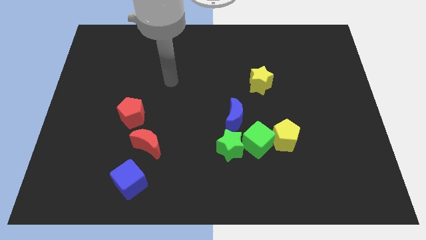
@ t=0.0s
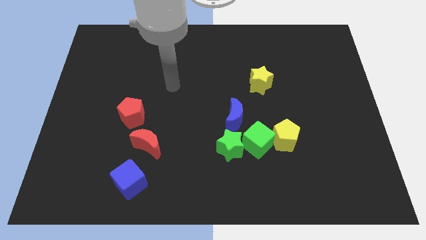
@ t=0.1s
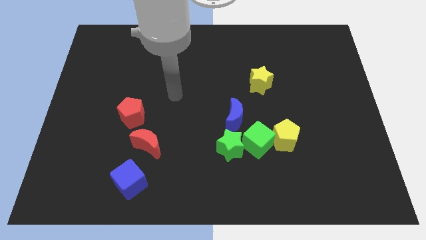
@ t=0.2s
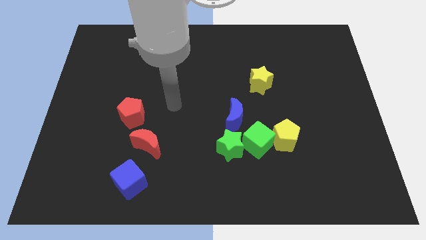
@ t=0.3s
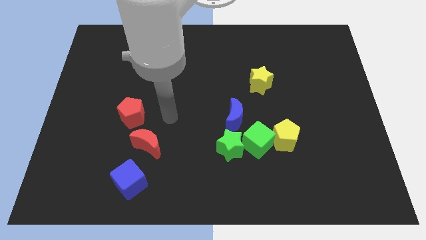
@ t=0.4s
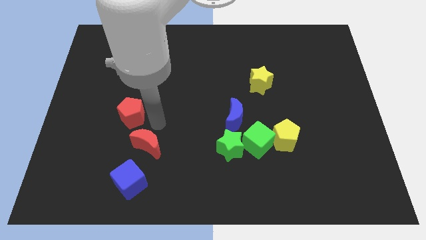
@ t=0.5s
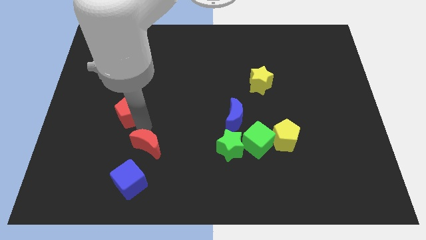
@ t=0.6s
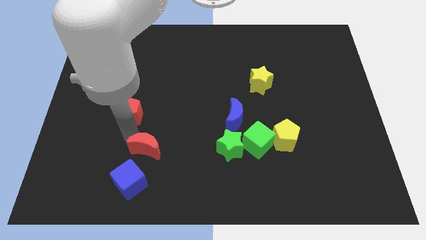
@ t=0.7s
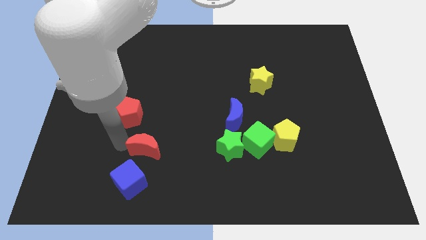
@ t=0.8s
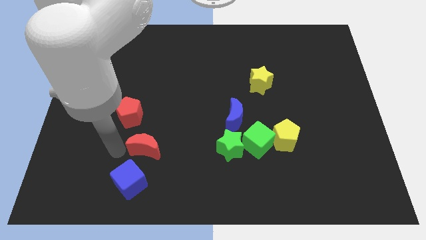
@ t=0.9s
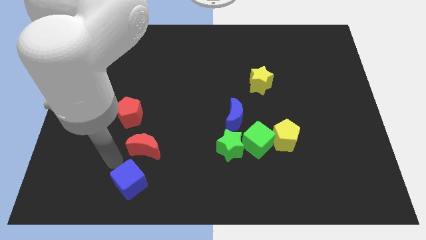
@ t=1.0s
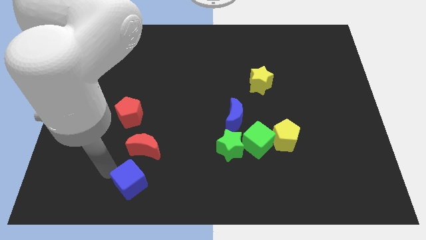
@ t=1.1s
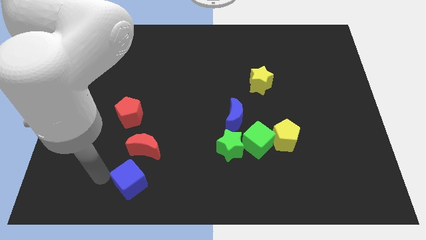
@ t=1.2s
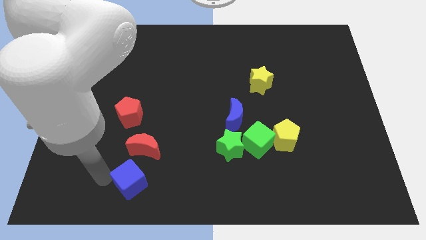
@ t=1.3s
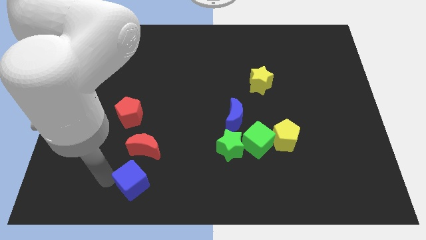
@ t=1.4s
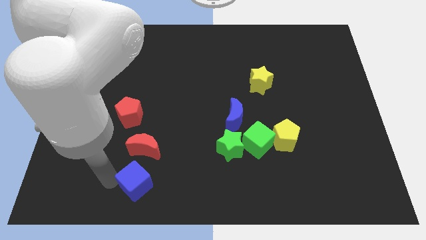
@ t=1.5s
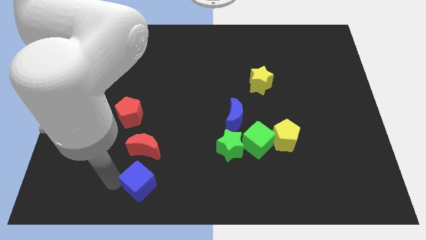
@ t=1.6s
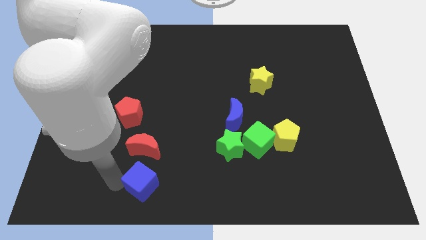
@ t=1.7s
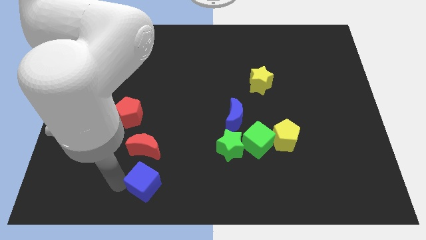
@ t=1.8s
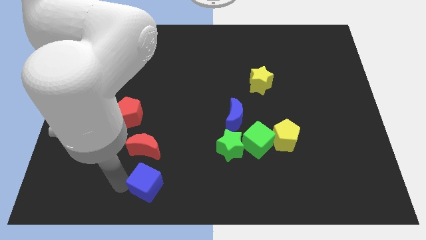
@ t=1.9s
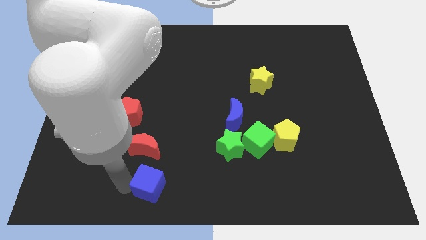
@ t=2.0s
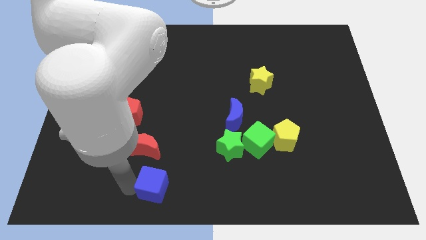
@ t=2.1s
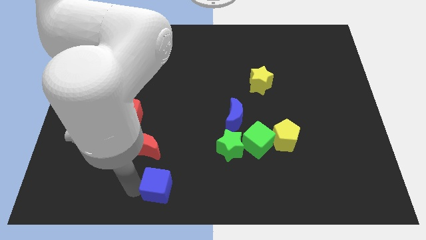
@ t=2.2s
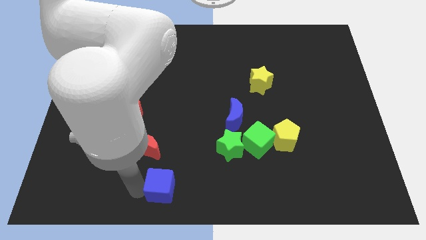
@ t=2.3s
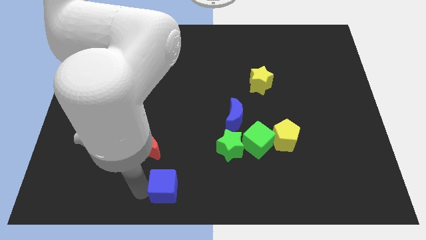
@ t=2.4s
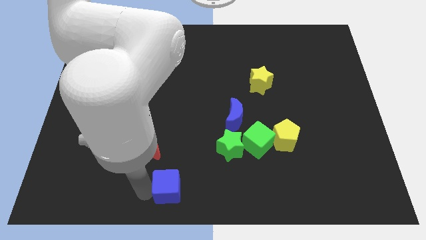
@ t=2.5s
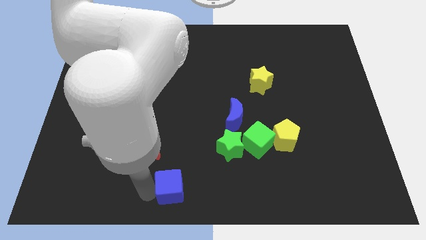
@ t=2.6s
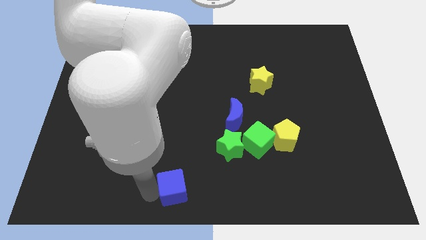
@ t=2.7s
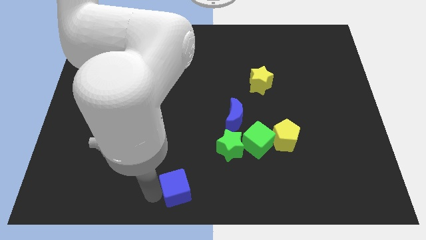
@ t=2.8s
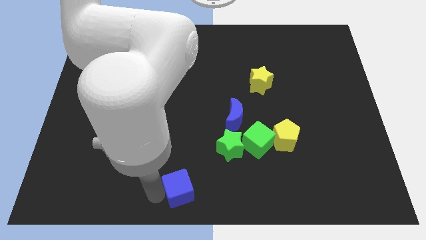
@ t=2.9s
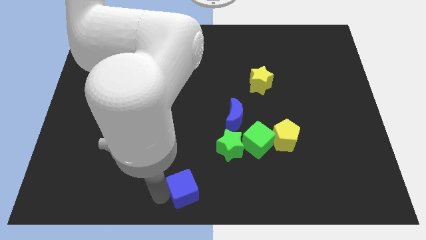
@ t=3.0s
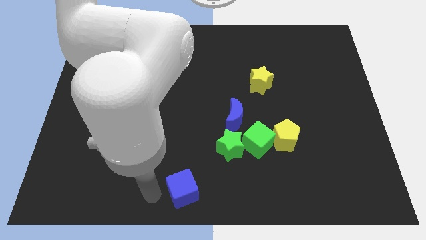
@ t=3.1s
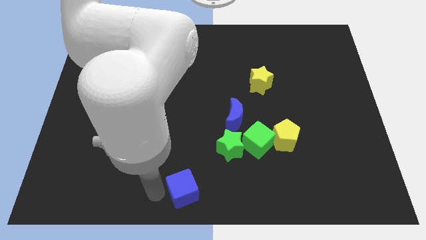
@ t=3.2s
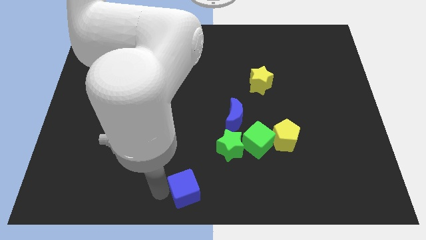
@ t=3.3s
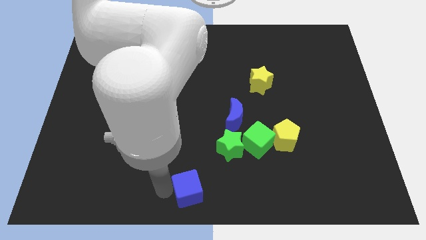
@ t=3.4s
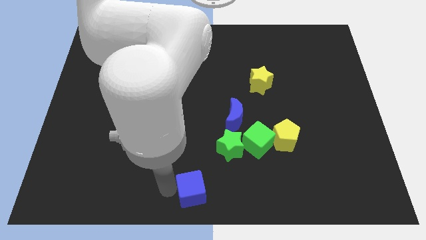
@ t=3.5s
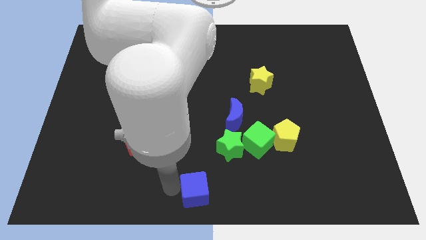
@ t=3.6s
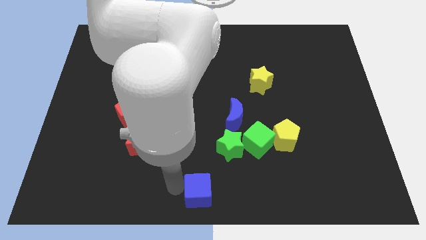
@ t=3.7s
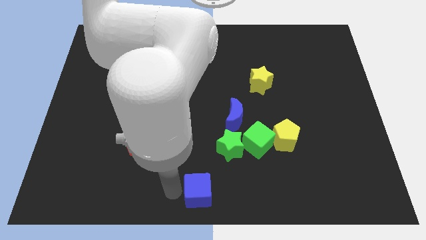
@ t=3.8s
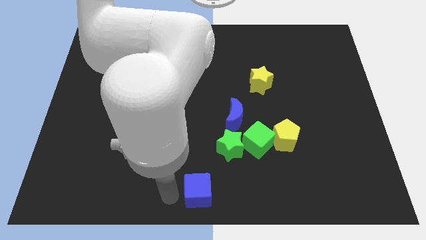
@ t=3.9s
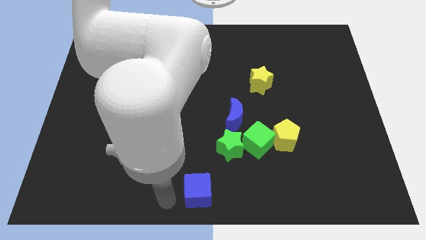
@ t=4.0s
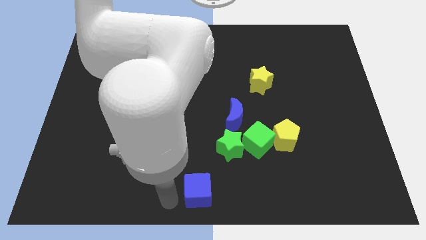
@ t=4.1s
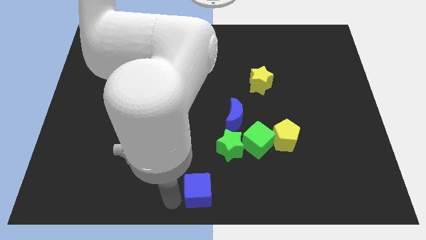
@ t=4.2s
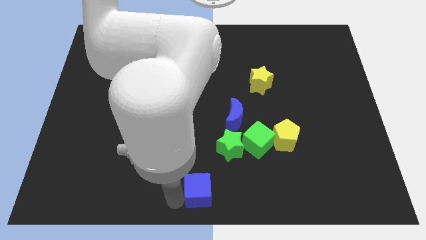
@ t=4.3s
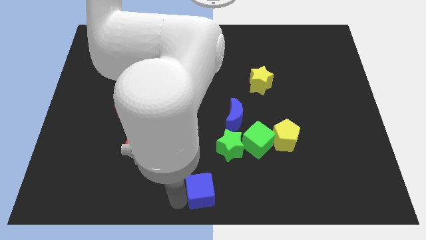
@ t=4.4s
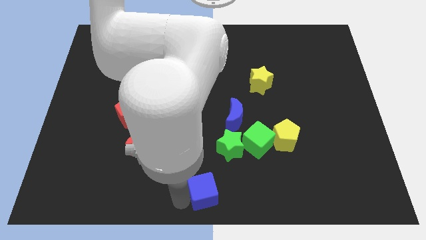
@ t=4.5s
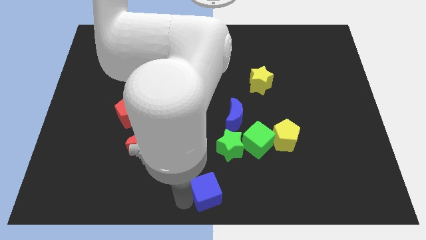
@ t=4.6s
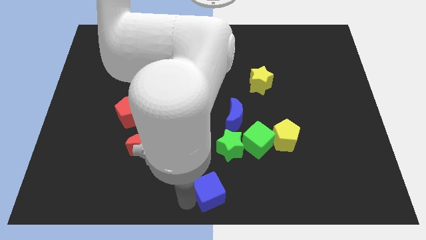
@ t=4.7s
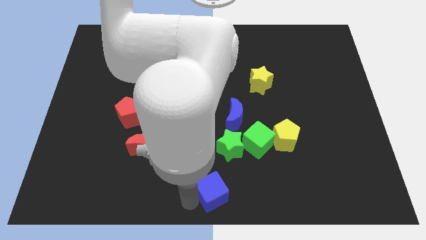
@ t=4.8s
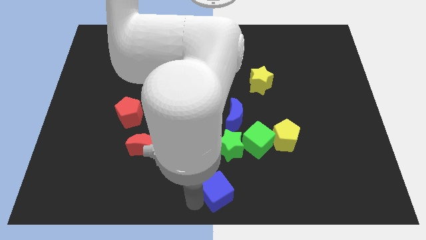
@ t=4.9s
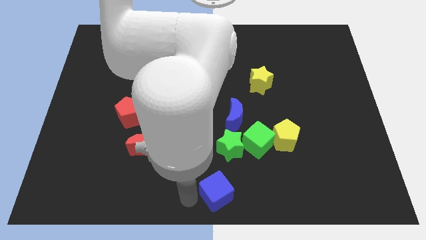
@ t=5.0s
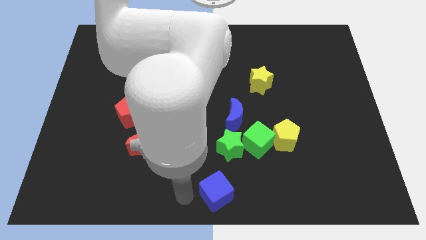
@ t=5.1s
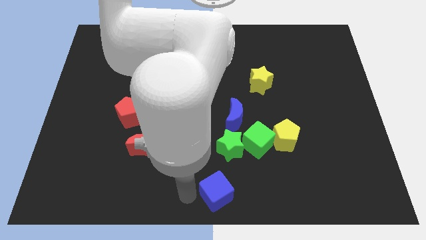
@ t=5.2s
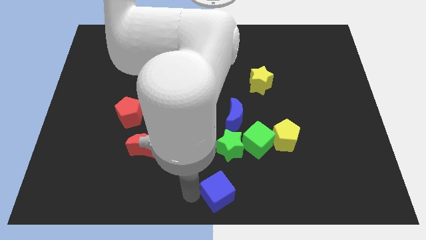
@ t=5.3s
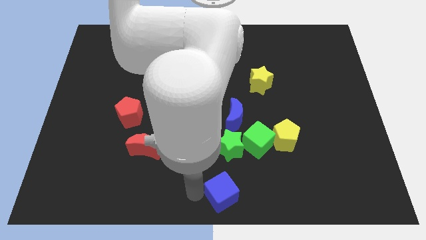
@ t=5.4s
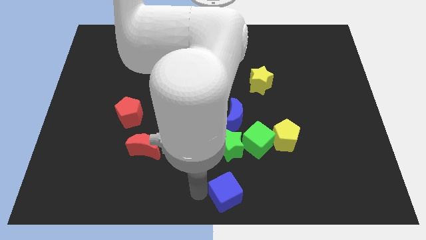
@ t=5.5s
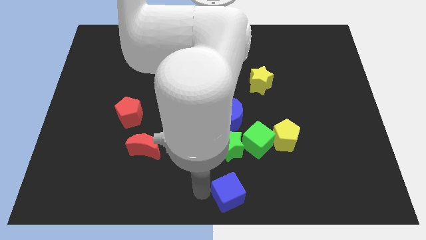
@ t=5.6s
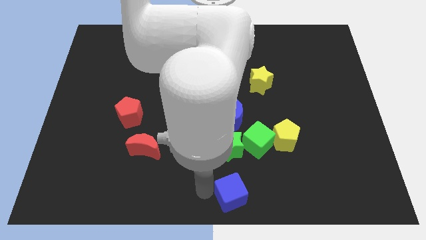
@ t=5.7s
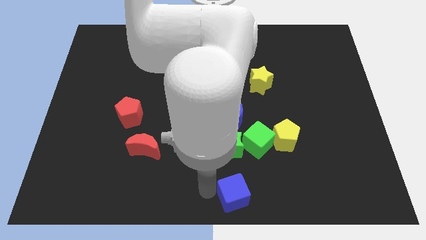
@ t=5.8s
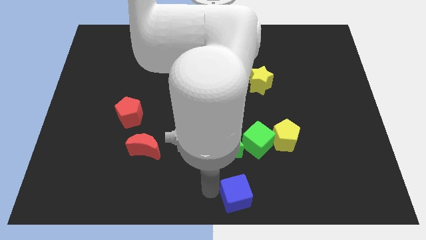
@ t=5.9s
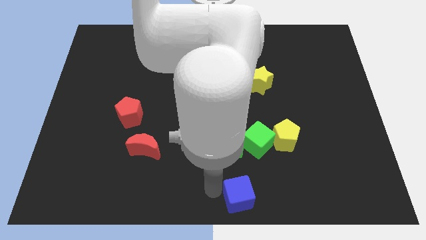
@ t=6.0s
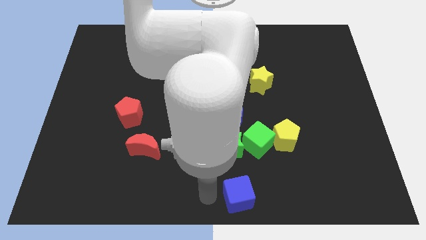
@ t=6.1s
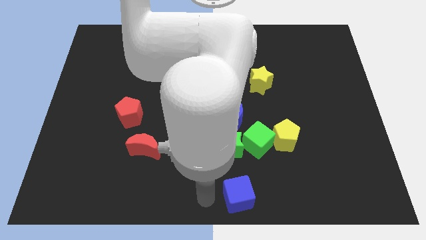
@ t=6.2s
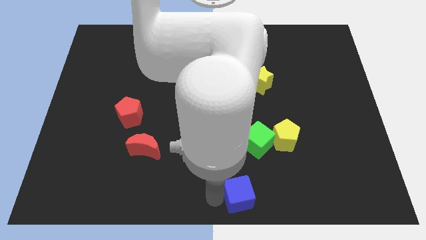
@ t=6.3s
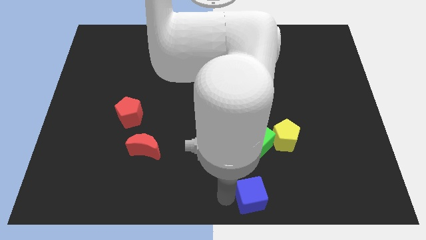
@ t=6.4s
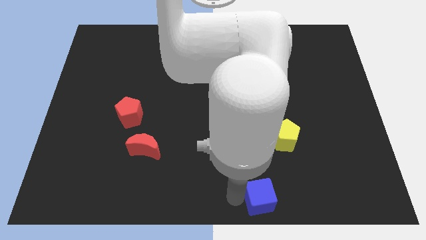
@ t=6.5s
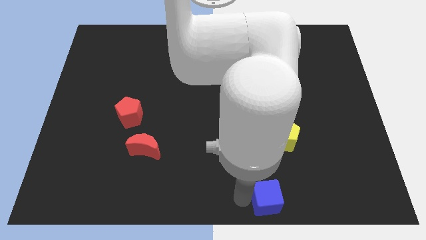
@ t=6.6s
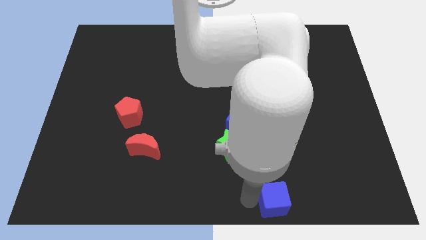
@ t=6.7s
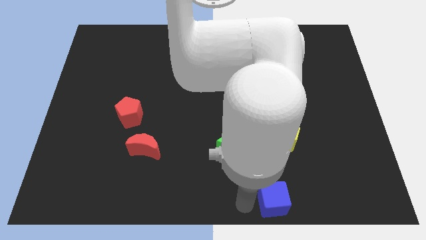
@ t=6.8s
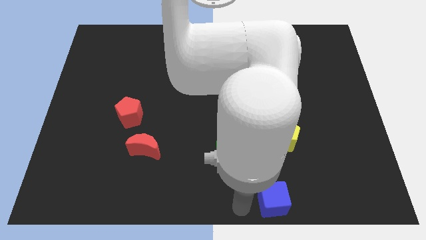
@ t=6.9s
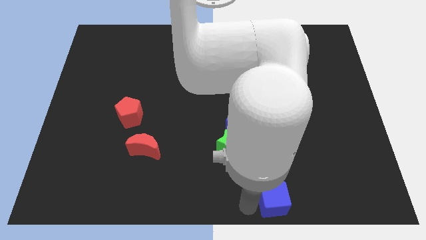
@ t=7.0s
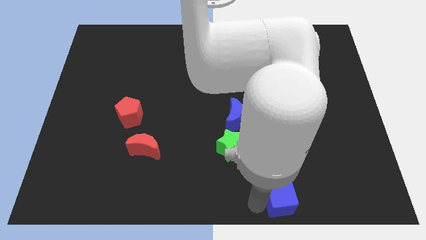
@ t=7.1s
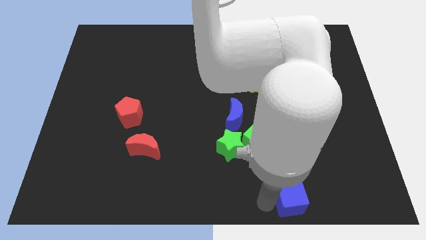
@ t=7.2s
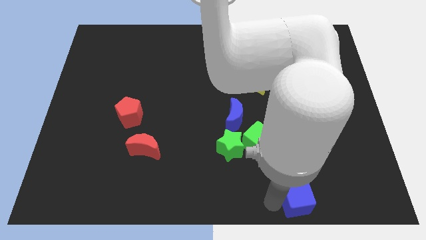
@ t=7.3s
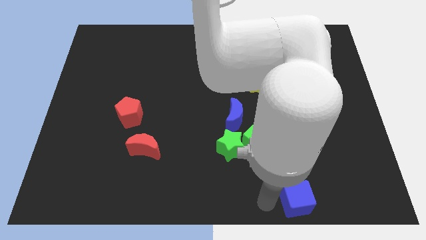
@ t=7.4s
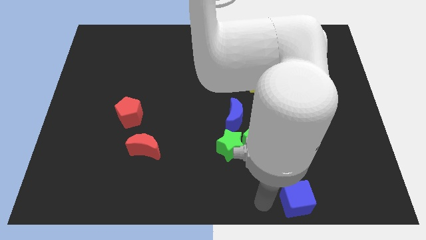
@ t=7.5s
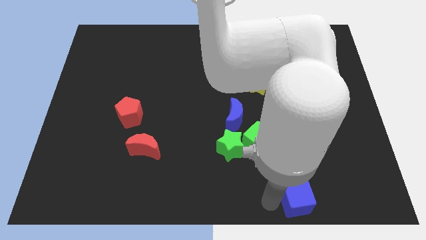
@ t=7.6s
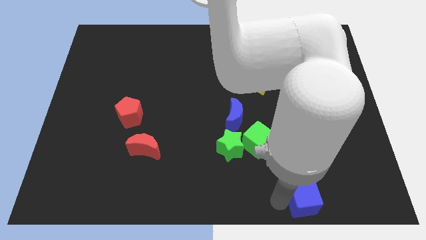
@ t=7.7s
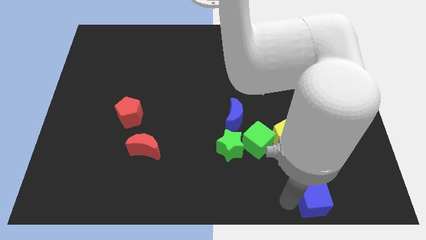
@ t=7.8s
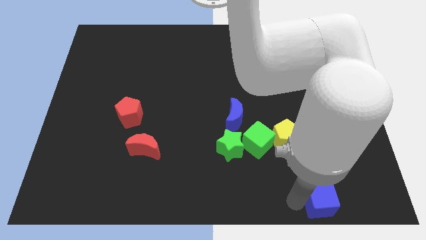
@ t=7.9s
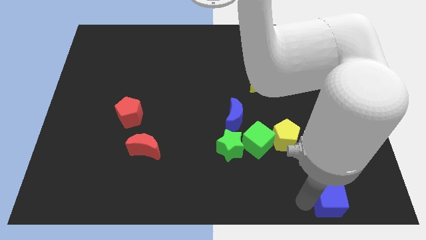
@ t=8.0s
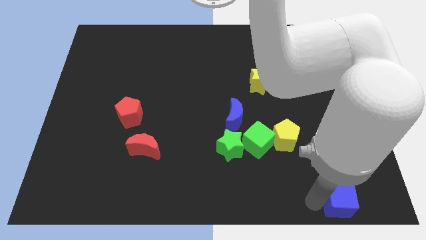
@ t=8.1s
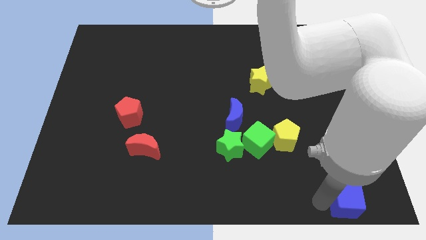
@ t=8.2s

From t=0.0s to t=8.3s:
push the blue cube to the lower right corner
